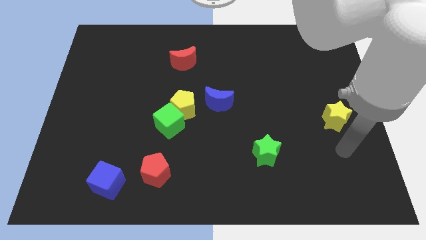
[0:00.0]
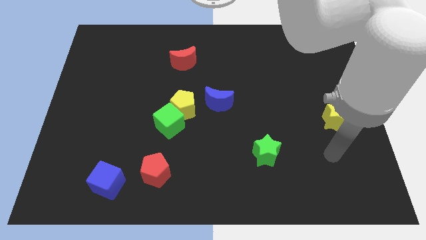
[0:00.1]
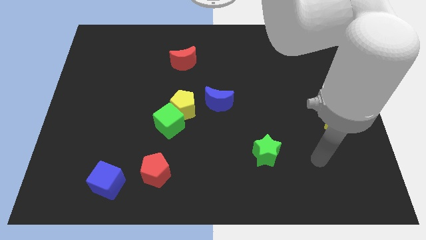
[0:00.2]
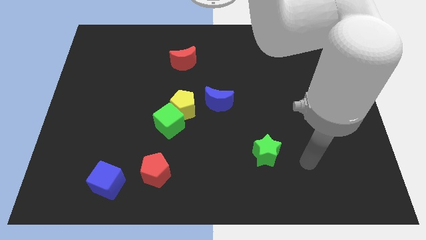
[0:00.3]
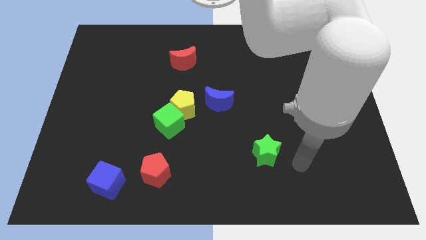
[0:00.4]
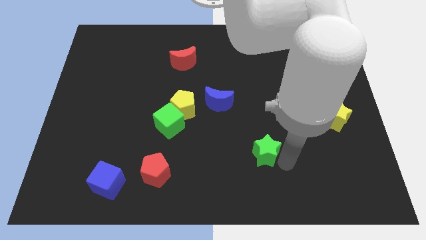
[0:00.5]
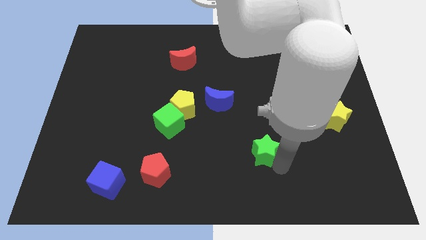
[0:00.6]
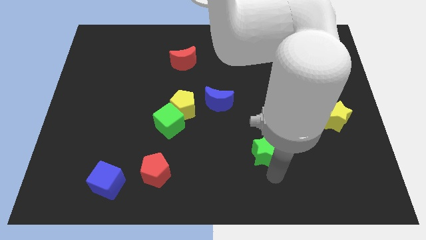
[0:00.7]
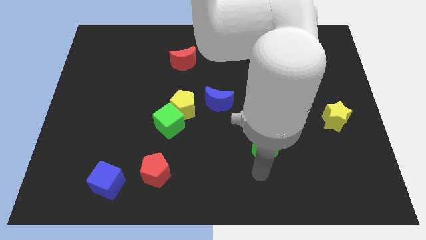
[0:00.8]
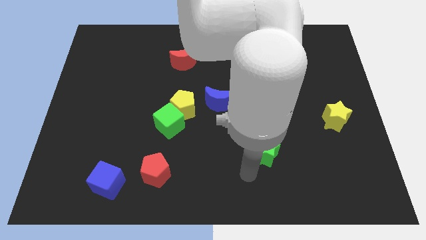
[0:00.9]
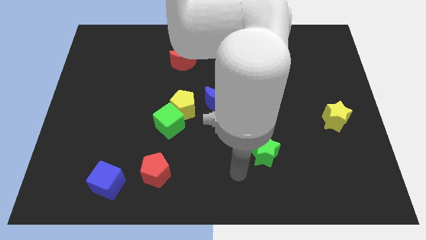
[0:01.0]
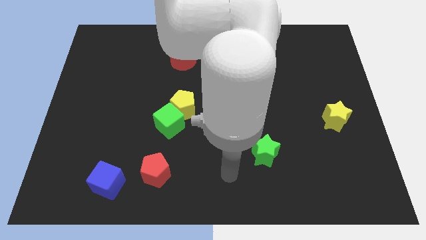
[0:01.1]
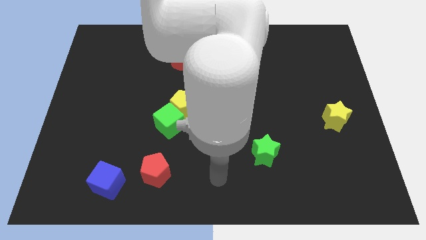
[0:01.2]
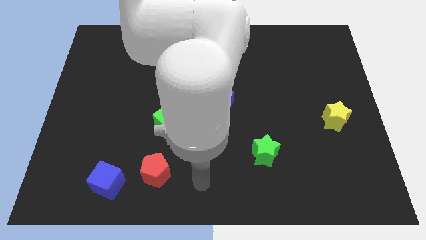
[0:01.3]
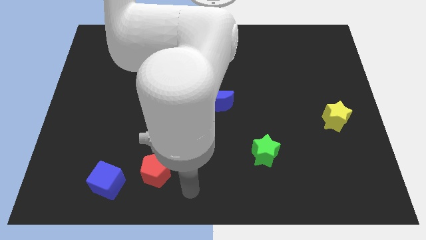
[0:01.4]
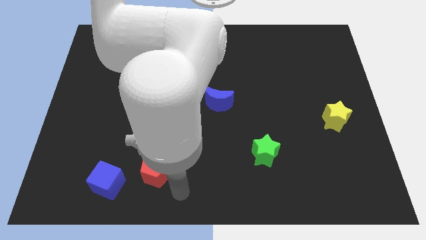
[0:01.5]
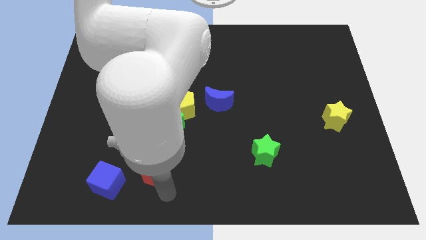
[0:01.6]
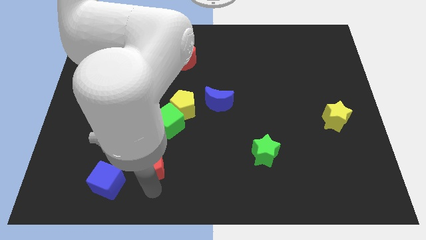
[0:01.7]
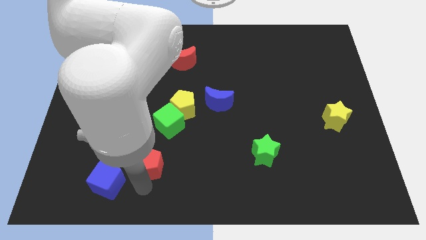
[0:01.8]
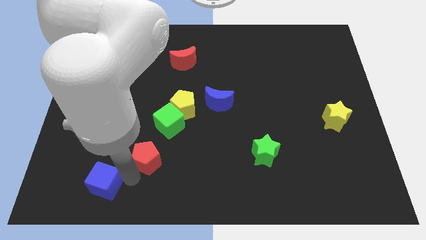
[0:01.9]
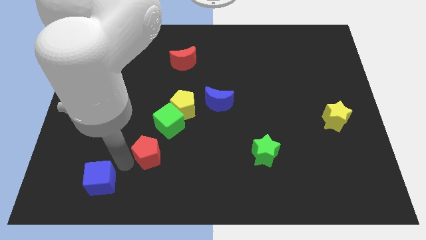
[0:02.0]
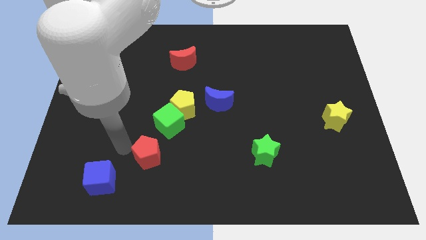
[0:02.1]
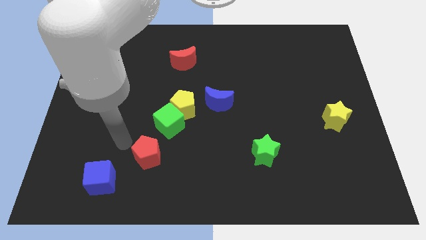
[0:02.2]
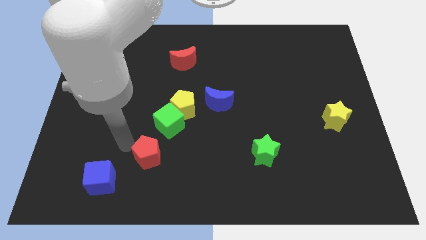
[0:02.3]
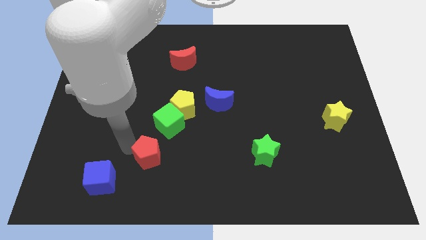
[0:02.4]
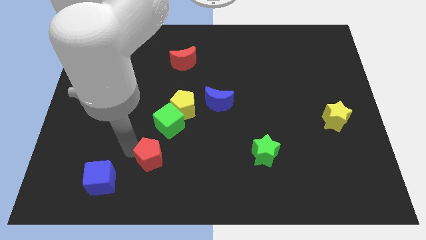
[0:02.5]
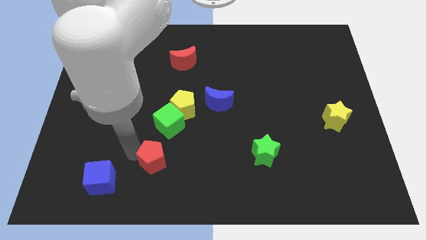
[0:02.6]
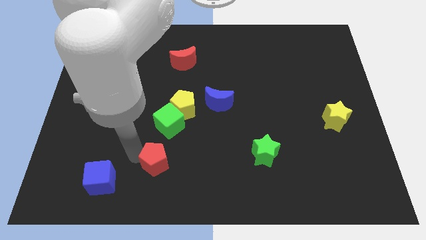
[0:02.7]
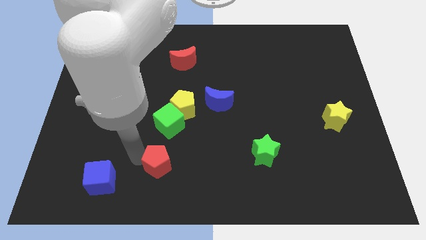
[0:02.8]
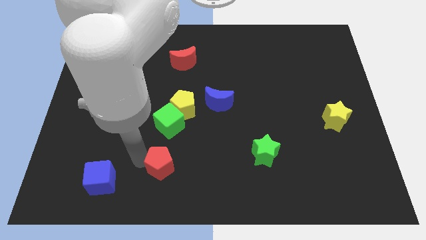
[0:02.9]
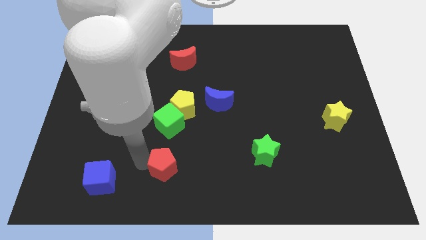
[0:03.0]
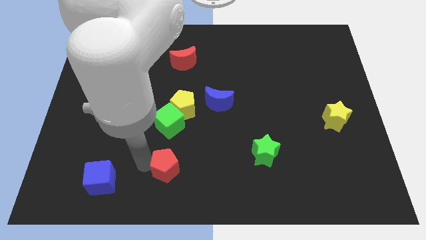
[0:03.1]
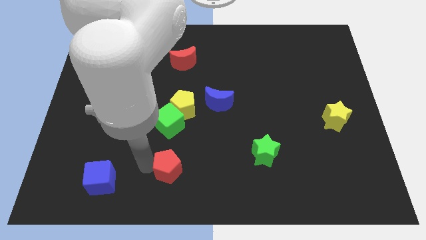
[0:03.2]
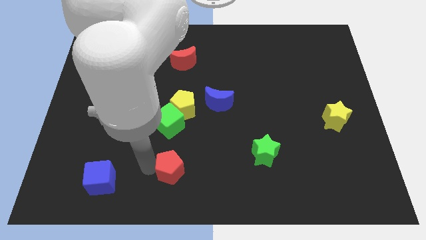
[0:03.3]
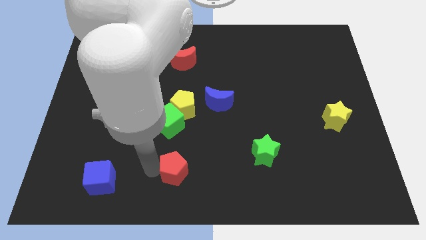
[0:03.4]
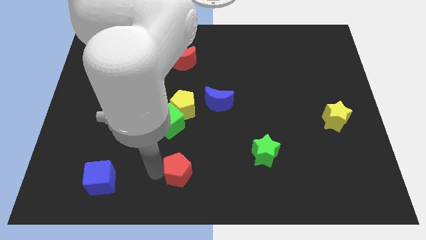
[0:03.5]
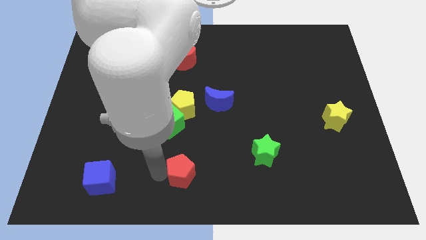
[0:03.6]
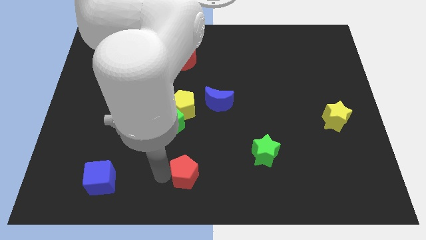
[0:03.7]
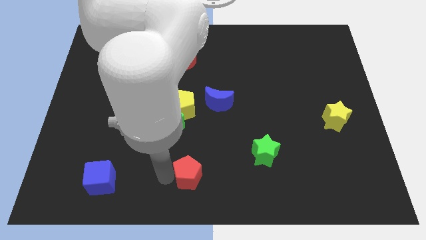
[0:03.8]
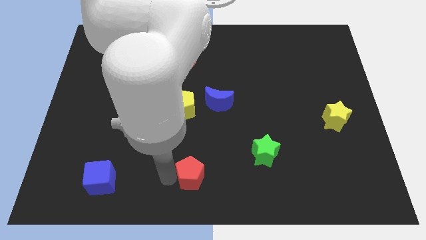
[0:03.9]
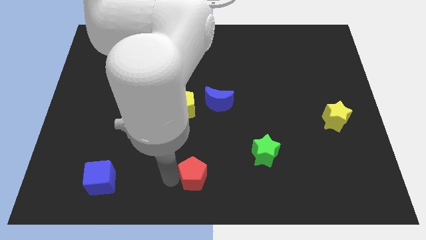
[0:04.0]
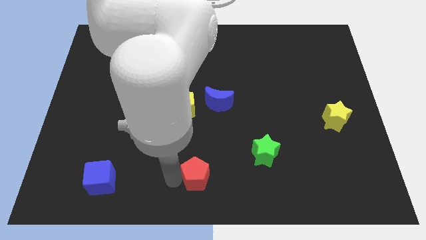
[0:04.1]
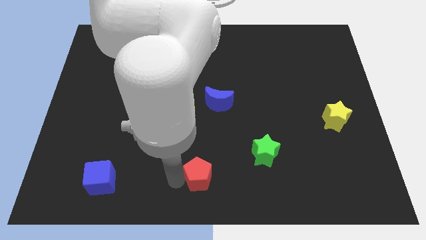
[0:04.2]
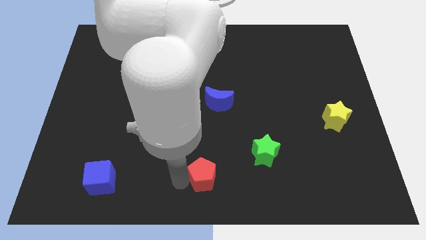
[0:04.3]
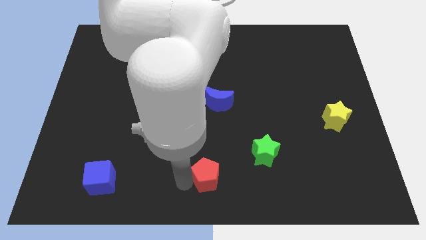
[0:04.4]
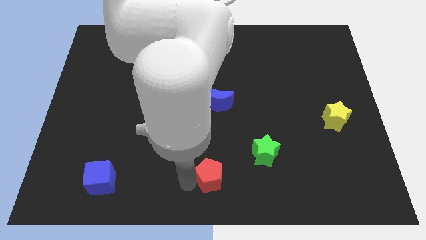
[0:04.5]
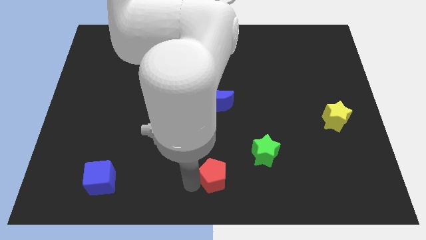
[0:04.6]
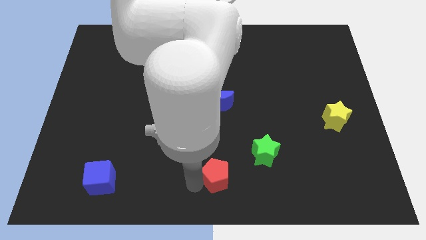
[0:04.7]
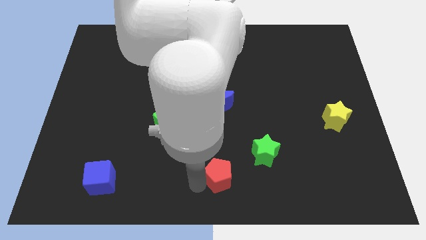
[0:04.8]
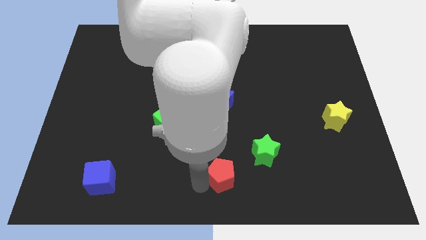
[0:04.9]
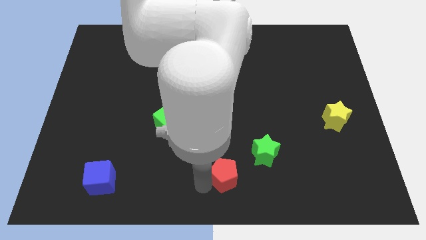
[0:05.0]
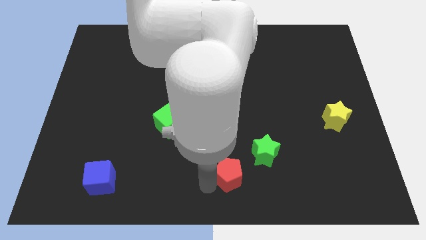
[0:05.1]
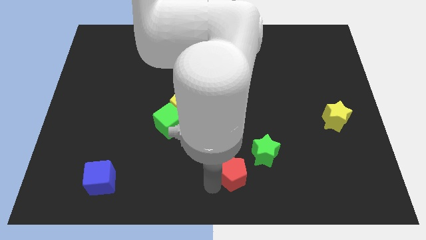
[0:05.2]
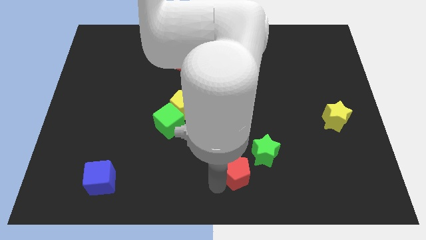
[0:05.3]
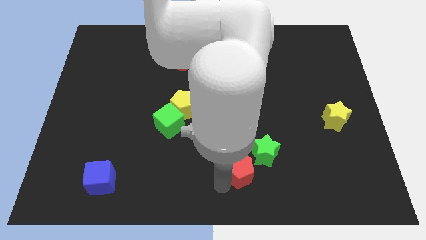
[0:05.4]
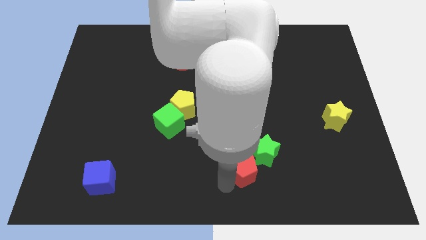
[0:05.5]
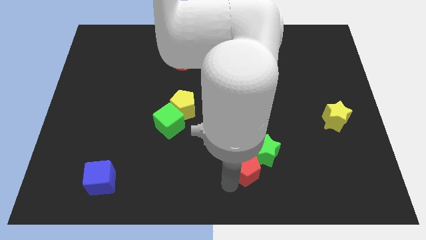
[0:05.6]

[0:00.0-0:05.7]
move the red pentagon close to the green star

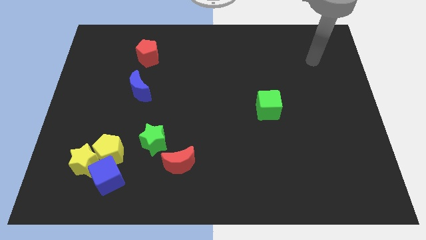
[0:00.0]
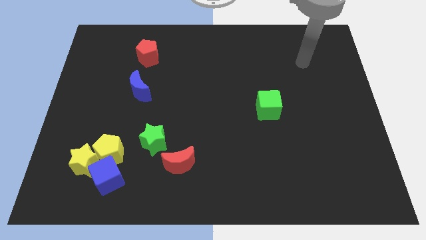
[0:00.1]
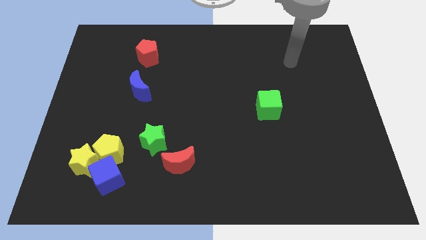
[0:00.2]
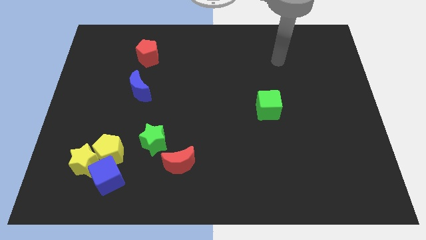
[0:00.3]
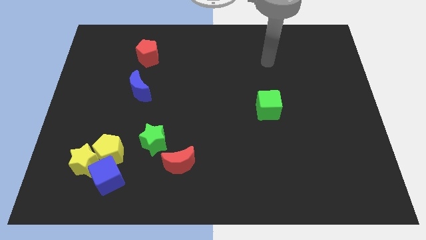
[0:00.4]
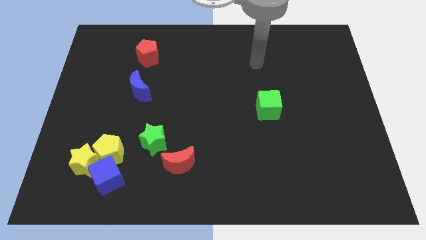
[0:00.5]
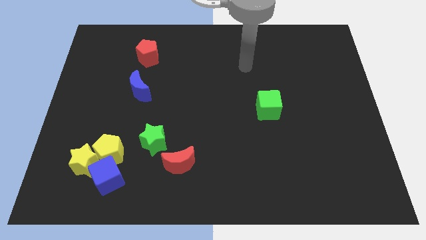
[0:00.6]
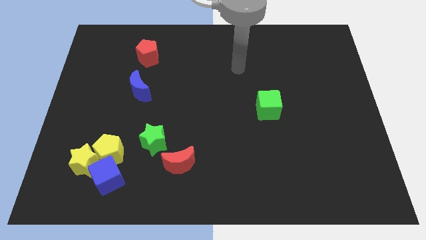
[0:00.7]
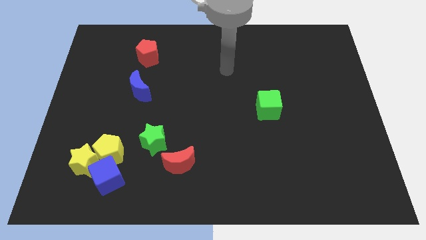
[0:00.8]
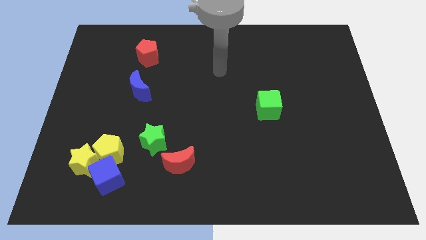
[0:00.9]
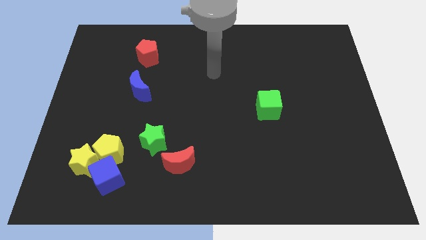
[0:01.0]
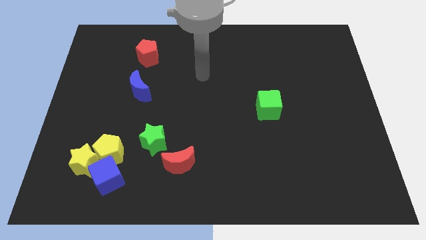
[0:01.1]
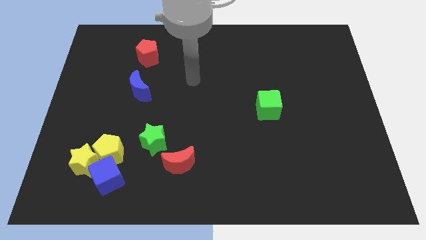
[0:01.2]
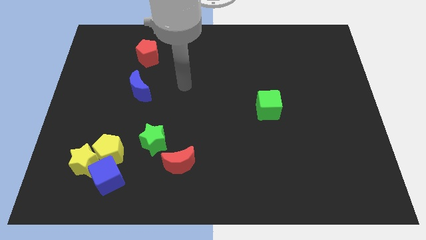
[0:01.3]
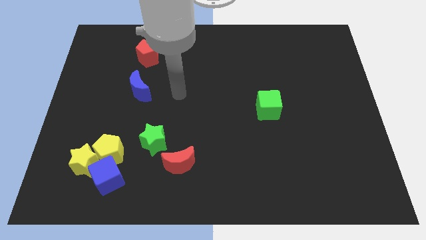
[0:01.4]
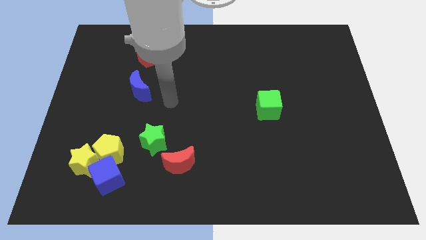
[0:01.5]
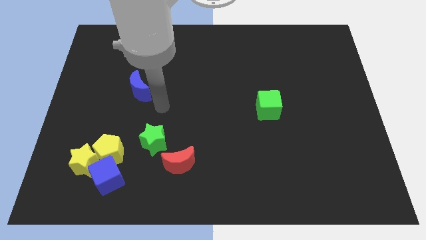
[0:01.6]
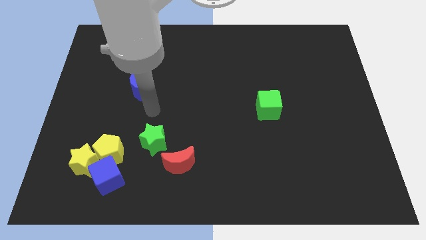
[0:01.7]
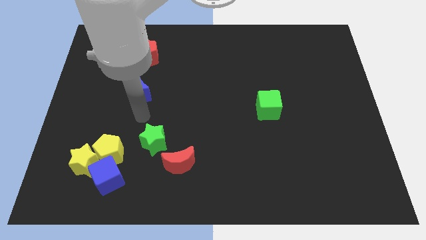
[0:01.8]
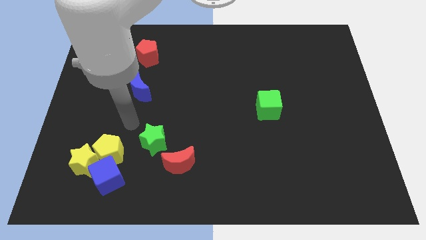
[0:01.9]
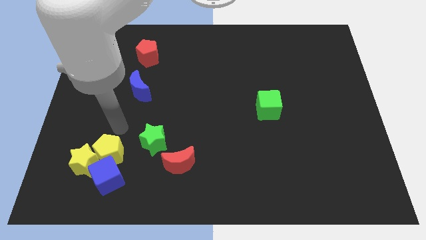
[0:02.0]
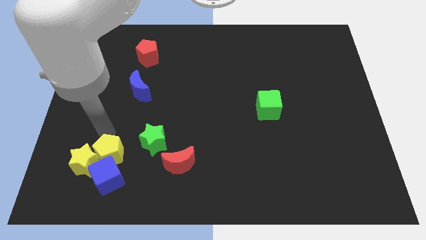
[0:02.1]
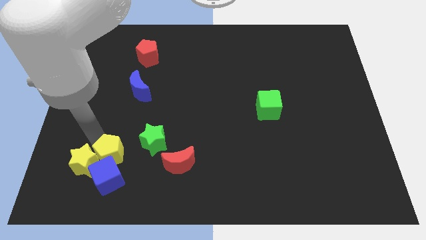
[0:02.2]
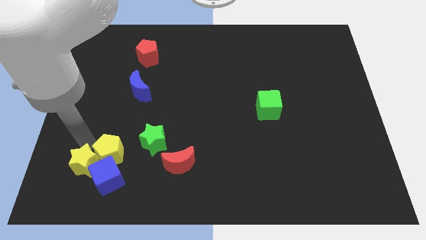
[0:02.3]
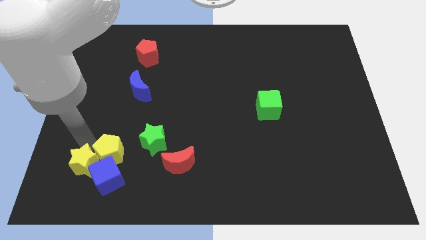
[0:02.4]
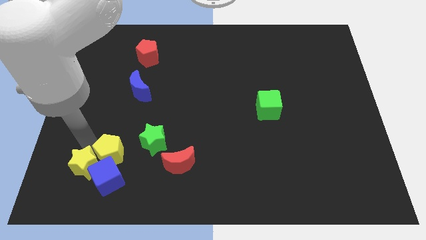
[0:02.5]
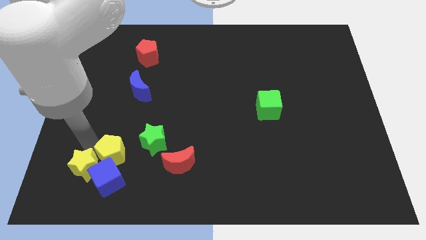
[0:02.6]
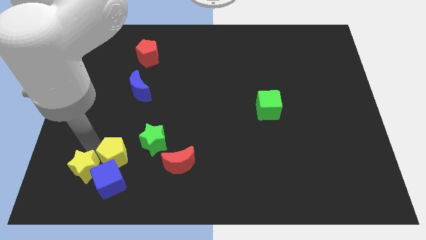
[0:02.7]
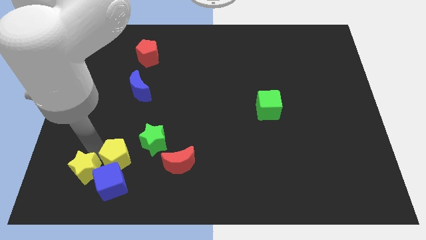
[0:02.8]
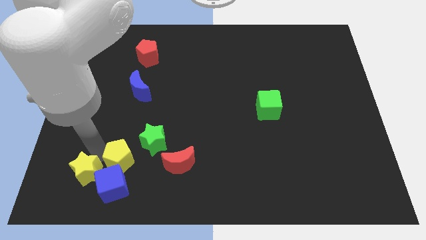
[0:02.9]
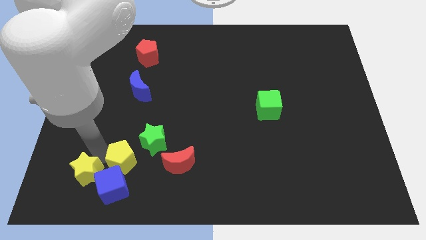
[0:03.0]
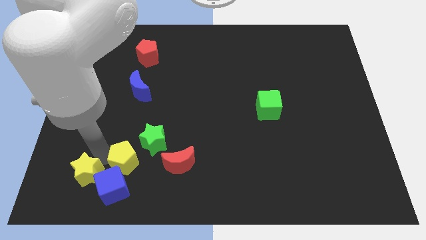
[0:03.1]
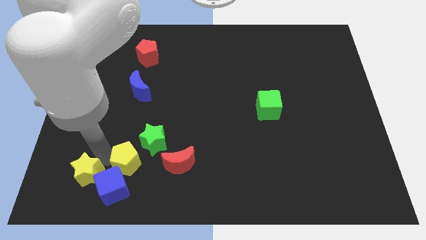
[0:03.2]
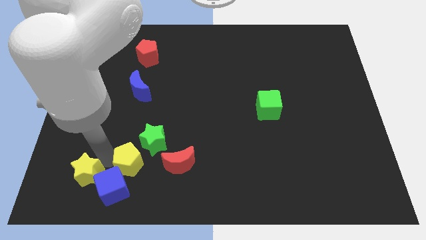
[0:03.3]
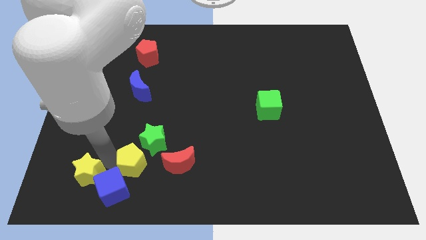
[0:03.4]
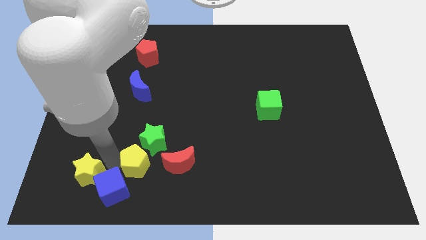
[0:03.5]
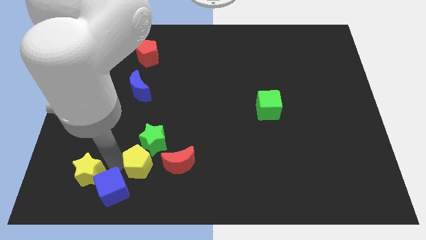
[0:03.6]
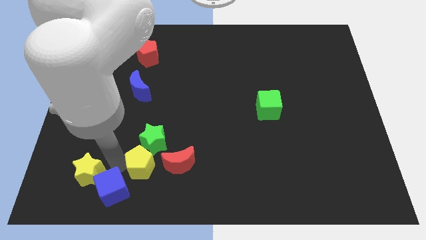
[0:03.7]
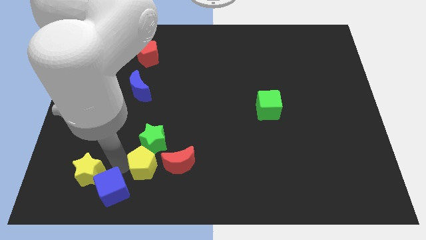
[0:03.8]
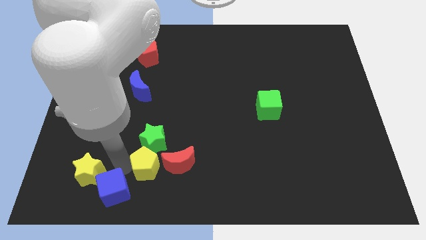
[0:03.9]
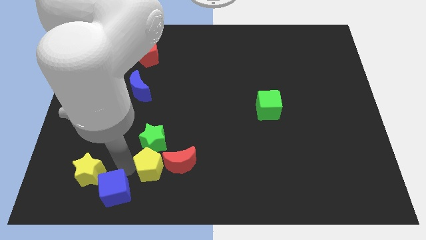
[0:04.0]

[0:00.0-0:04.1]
push the yellow pentagon next to the red moon
